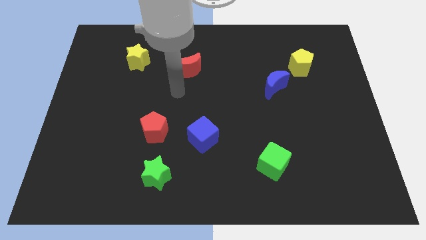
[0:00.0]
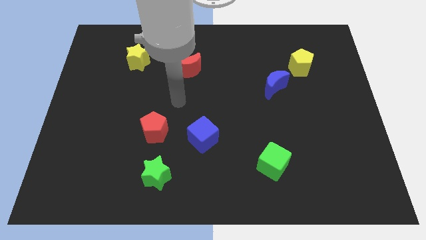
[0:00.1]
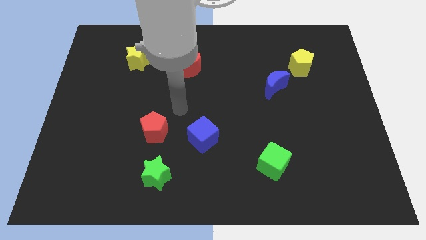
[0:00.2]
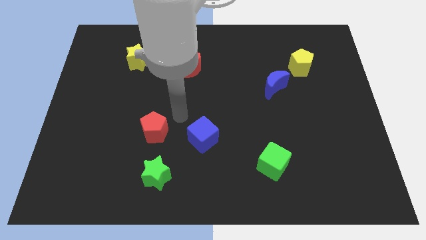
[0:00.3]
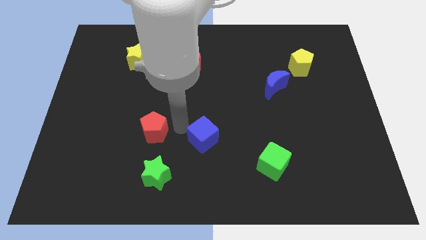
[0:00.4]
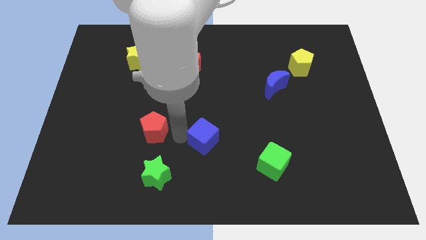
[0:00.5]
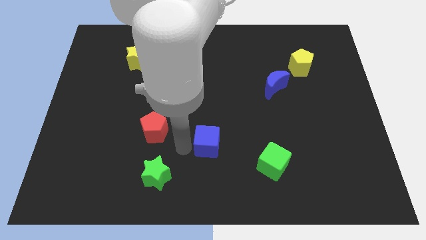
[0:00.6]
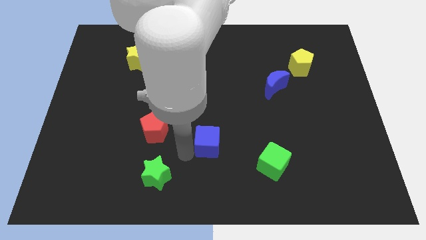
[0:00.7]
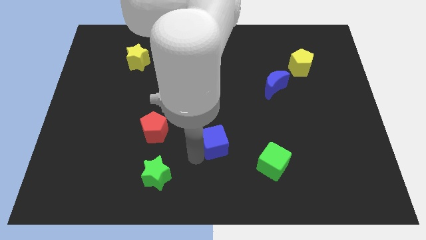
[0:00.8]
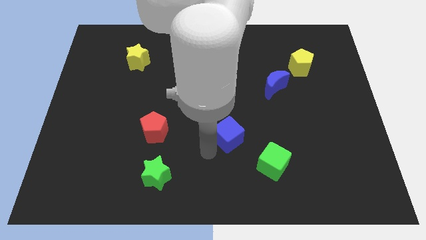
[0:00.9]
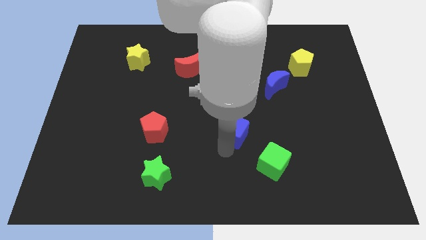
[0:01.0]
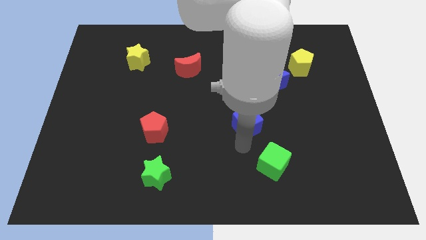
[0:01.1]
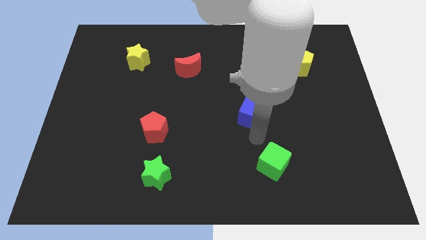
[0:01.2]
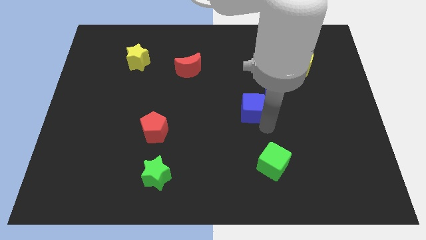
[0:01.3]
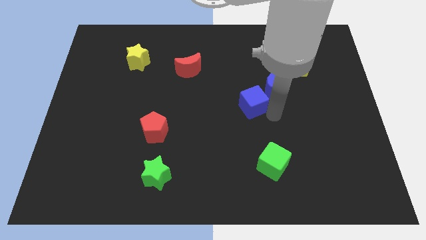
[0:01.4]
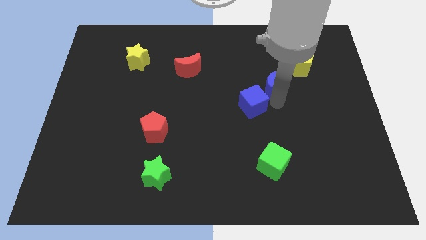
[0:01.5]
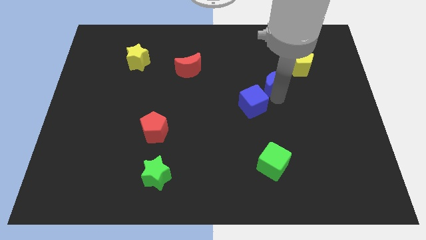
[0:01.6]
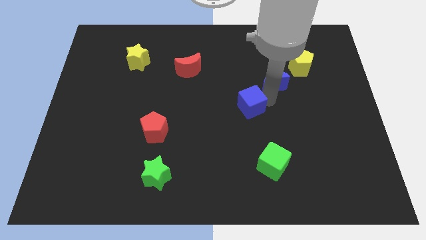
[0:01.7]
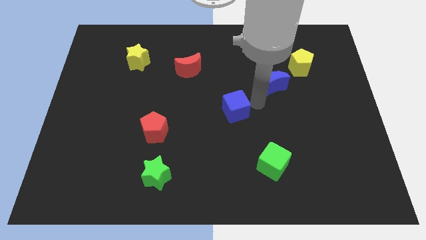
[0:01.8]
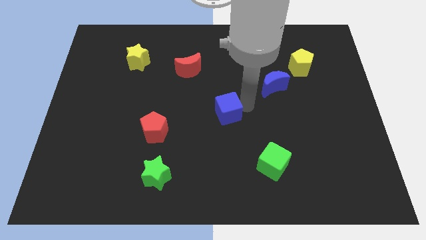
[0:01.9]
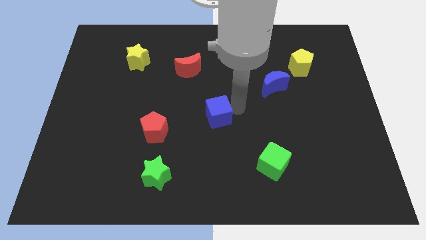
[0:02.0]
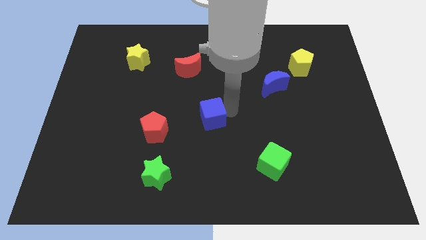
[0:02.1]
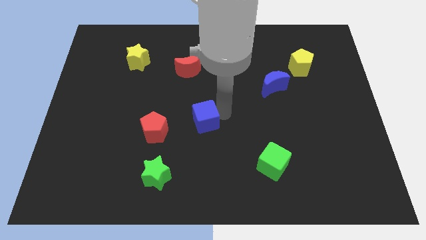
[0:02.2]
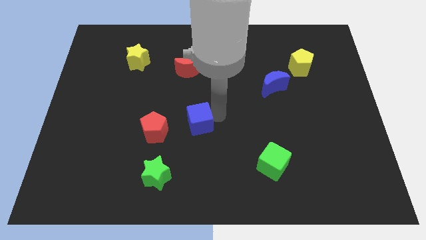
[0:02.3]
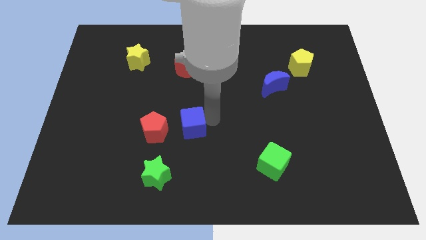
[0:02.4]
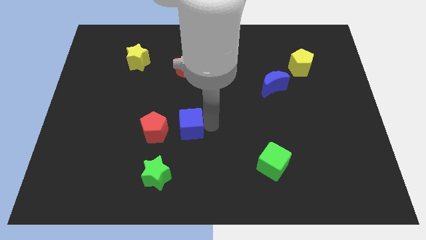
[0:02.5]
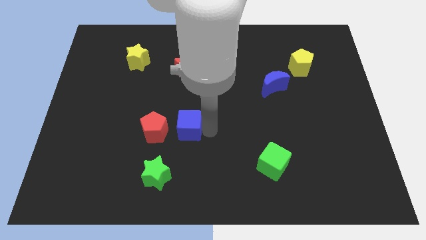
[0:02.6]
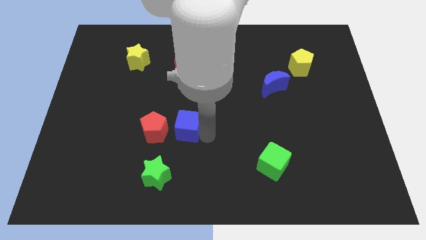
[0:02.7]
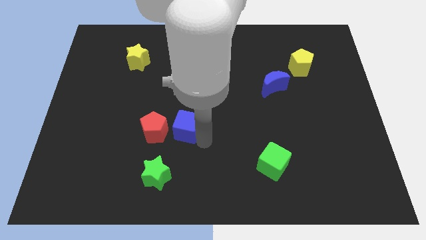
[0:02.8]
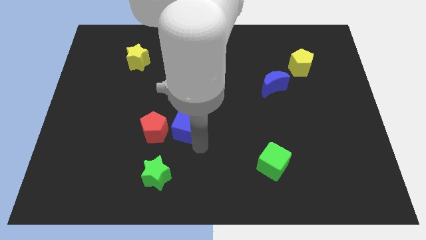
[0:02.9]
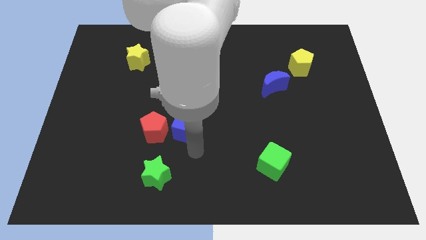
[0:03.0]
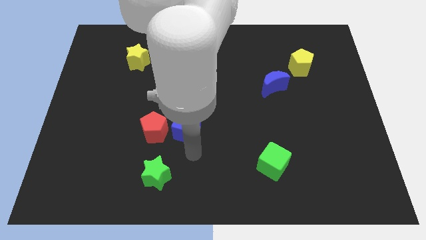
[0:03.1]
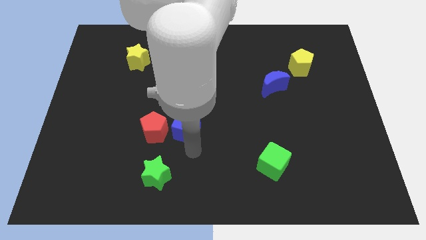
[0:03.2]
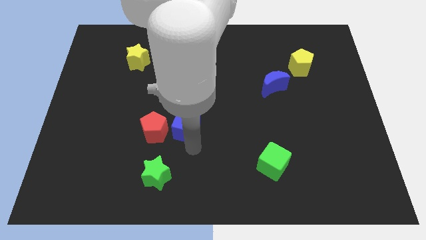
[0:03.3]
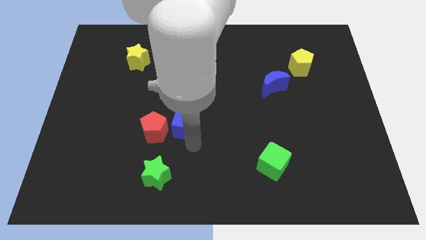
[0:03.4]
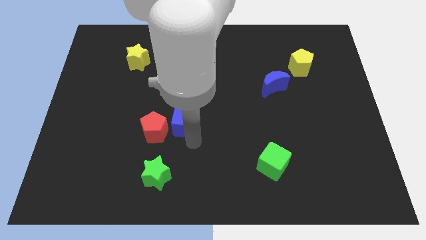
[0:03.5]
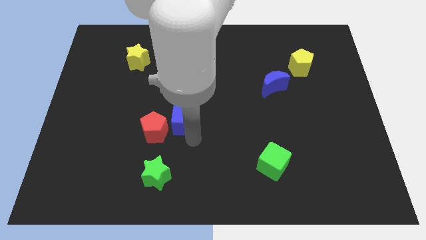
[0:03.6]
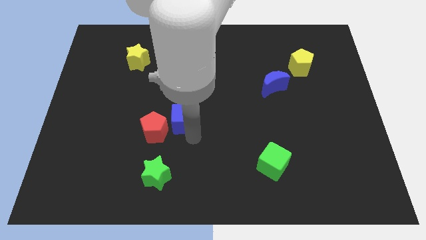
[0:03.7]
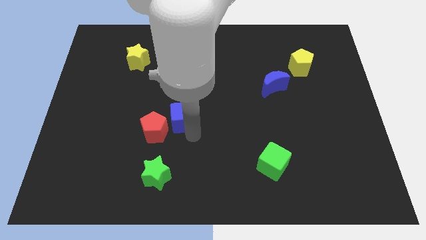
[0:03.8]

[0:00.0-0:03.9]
slide the blue cube a little bit up and to the left

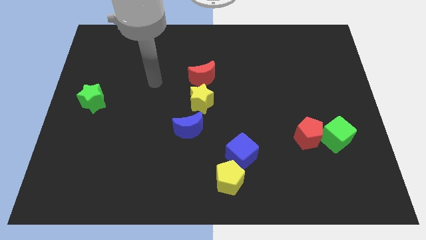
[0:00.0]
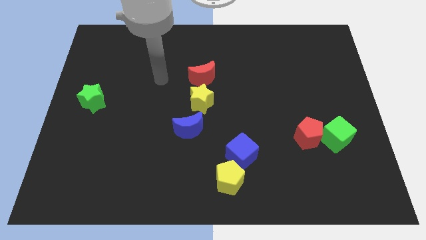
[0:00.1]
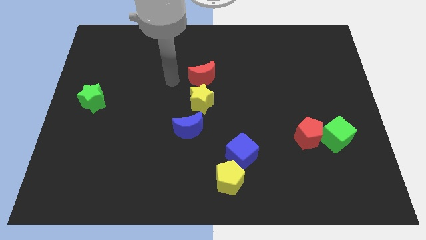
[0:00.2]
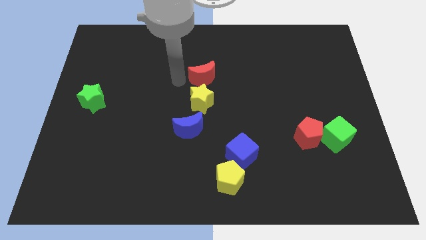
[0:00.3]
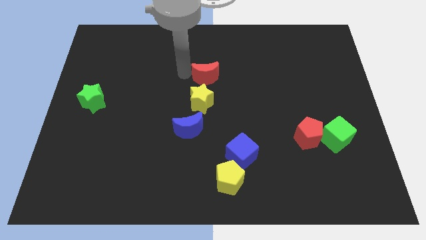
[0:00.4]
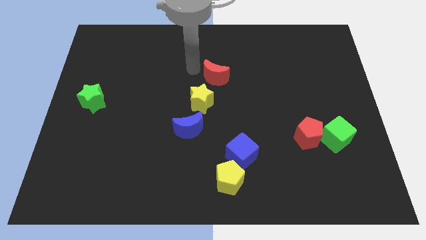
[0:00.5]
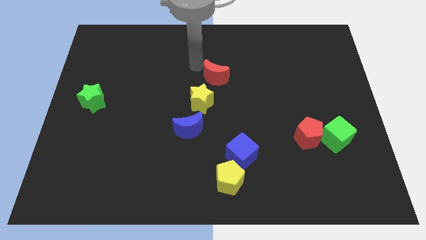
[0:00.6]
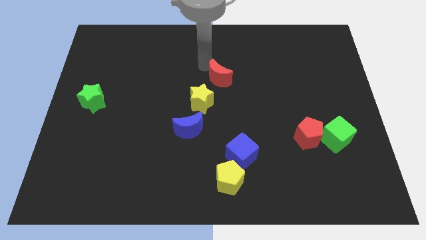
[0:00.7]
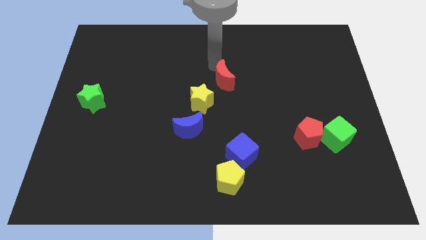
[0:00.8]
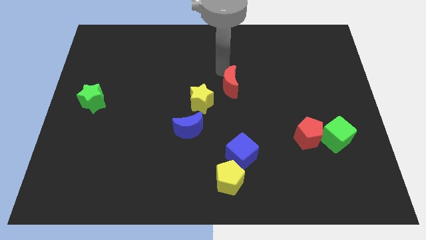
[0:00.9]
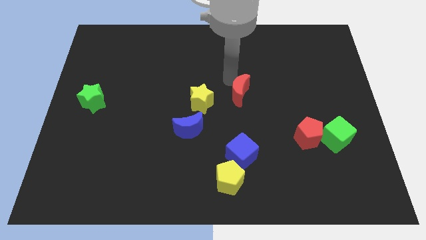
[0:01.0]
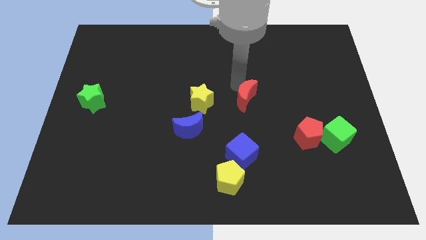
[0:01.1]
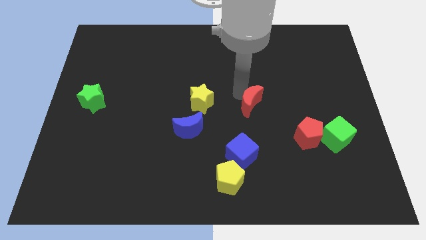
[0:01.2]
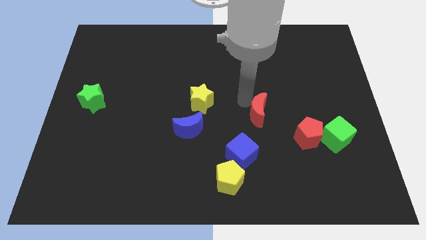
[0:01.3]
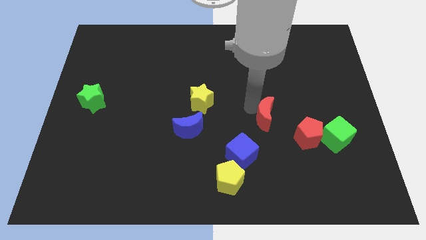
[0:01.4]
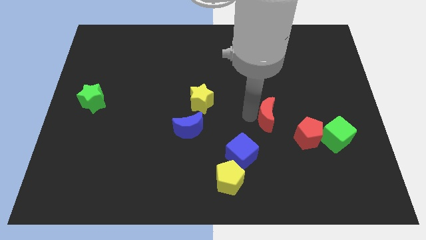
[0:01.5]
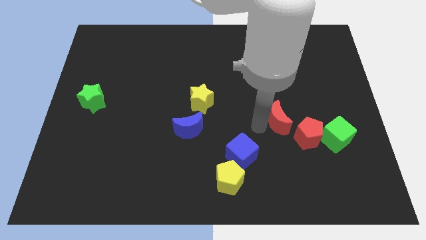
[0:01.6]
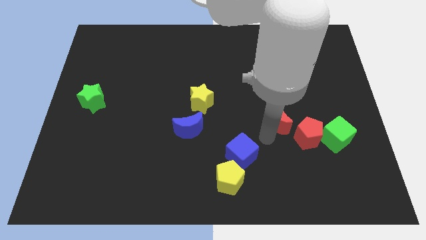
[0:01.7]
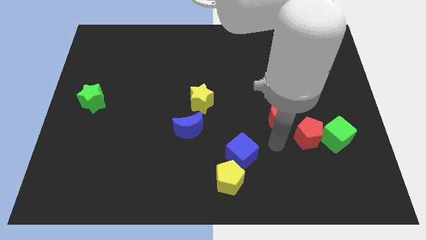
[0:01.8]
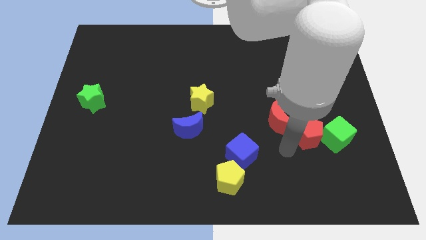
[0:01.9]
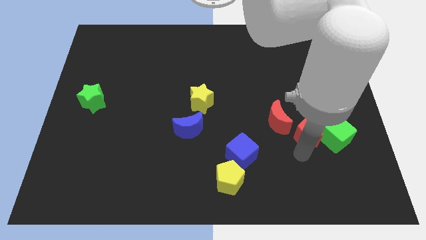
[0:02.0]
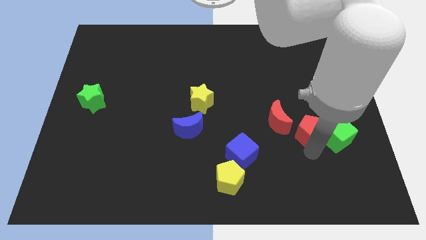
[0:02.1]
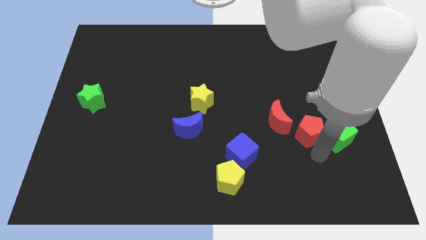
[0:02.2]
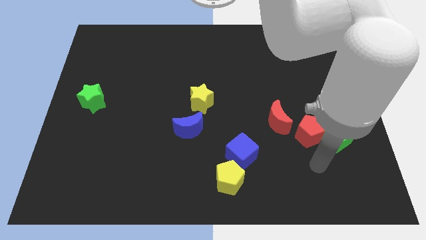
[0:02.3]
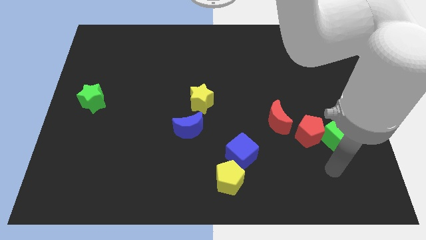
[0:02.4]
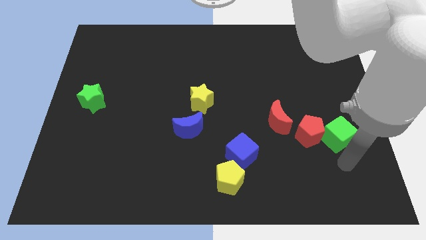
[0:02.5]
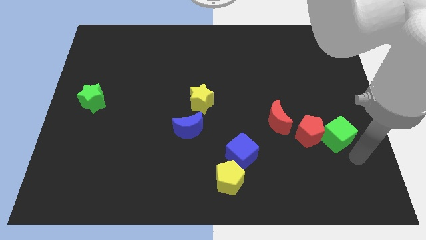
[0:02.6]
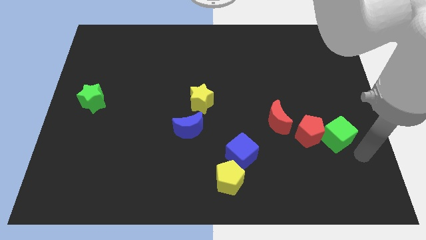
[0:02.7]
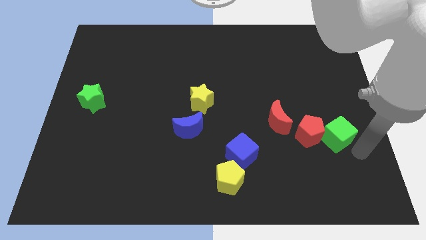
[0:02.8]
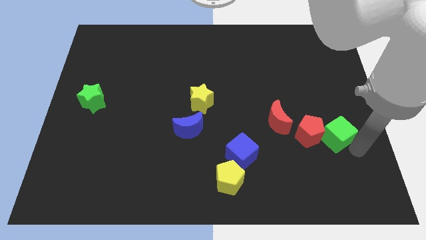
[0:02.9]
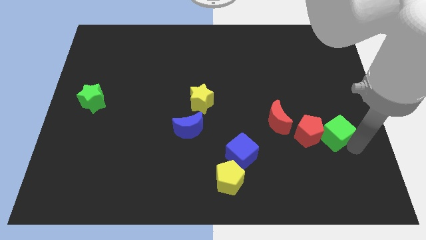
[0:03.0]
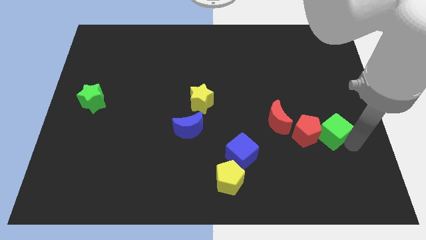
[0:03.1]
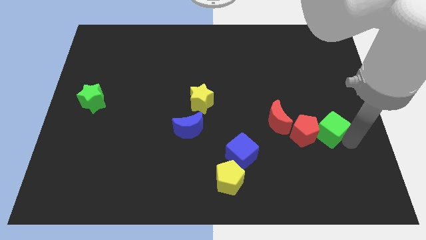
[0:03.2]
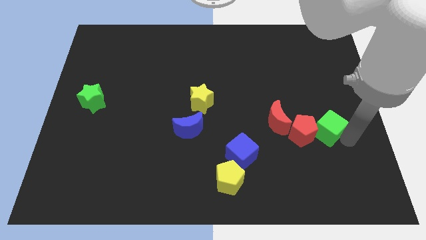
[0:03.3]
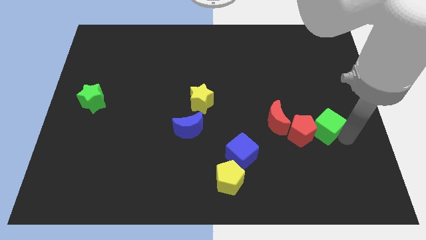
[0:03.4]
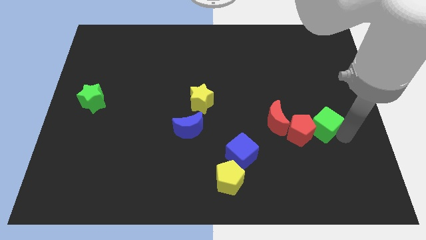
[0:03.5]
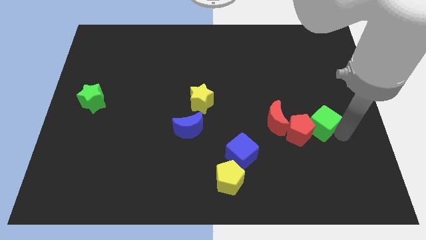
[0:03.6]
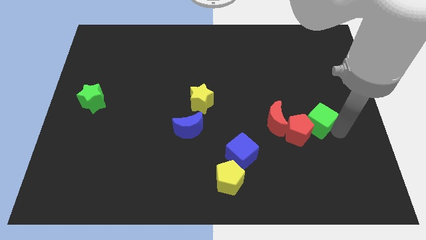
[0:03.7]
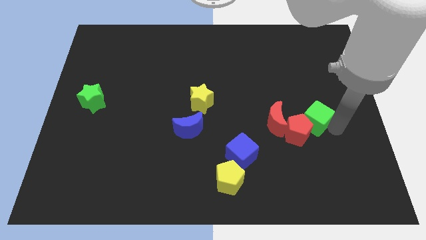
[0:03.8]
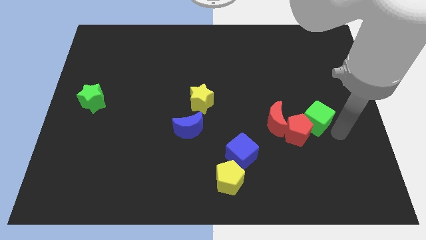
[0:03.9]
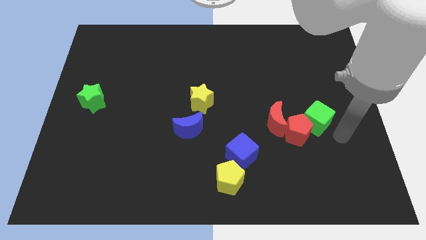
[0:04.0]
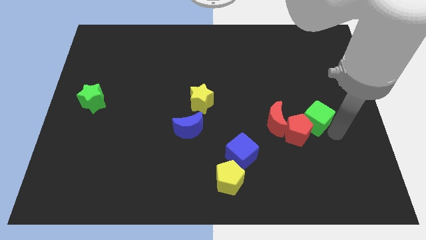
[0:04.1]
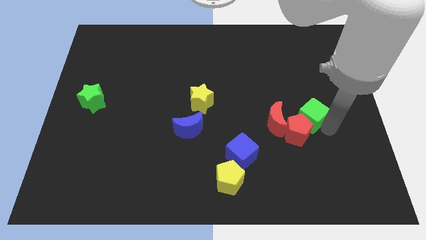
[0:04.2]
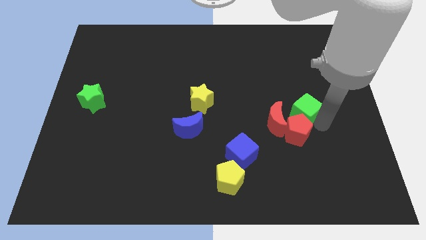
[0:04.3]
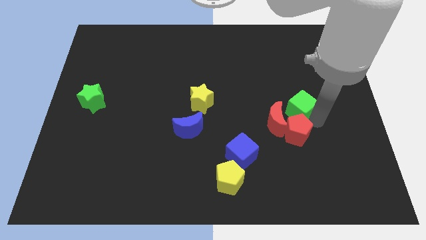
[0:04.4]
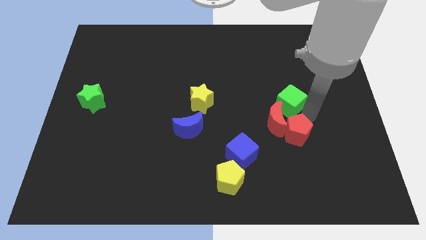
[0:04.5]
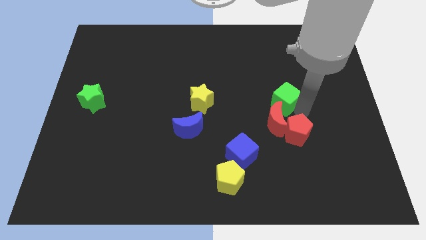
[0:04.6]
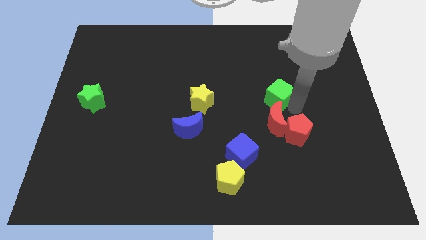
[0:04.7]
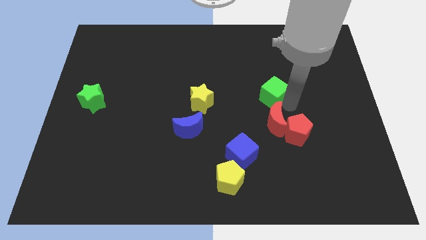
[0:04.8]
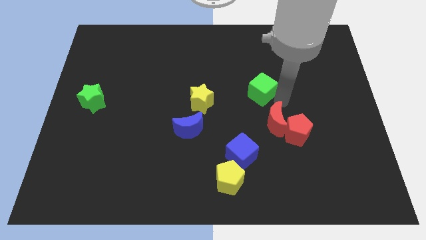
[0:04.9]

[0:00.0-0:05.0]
push the green cube diagonally up and left
